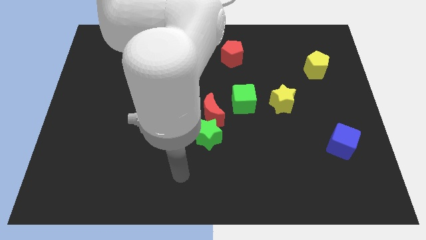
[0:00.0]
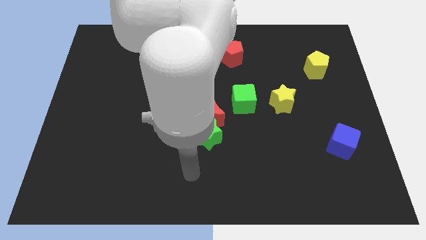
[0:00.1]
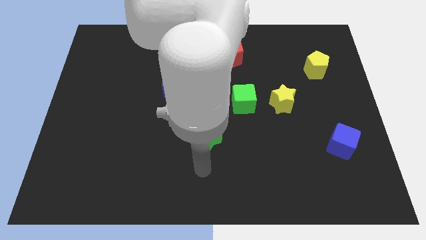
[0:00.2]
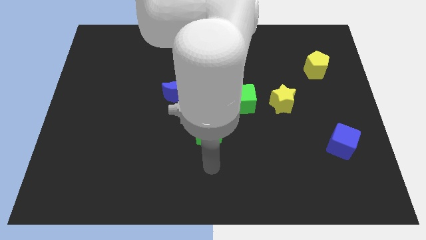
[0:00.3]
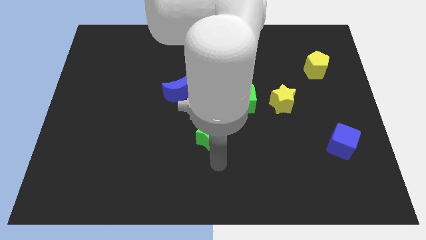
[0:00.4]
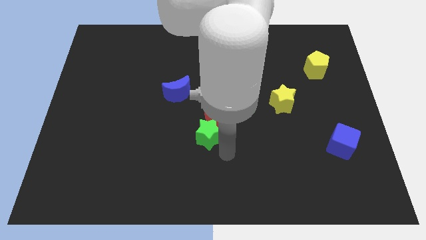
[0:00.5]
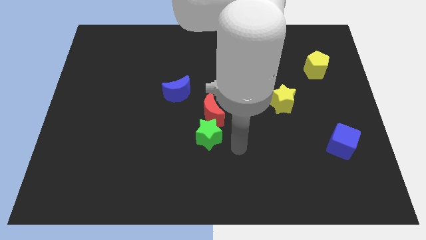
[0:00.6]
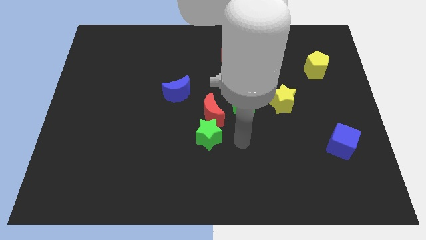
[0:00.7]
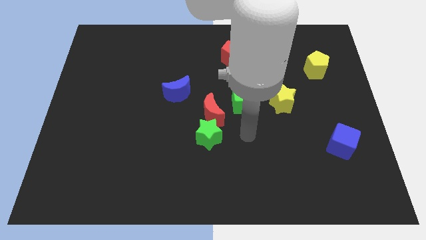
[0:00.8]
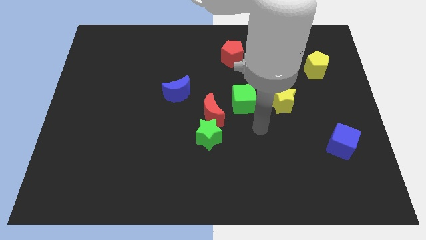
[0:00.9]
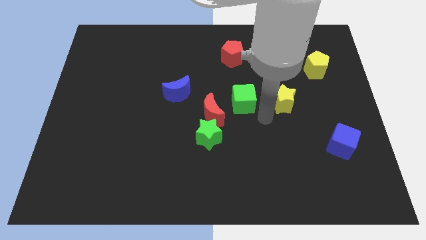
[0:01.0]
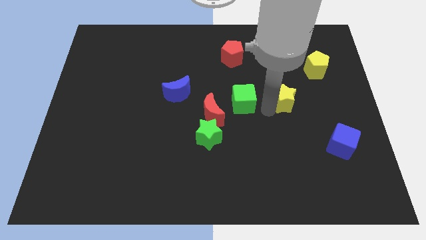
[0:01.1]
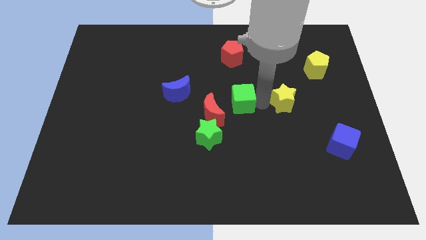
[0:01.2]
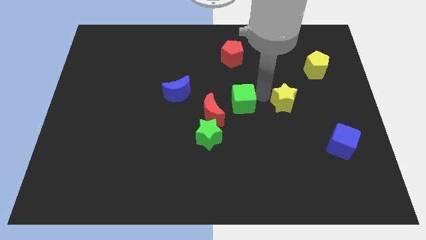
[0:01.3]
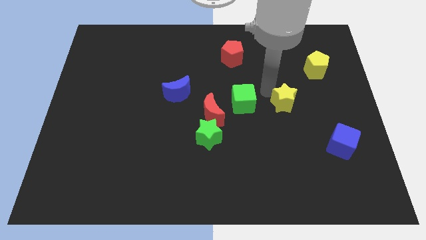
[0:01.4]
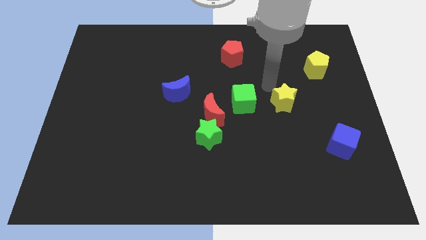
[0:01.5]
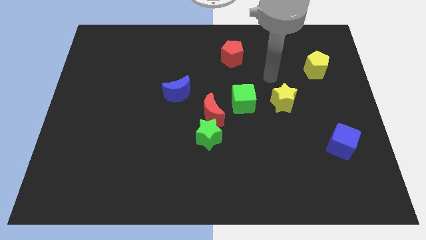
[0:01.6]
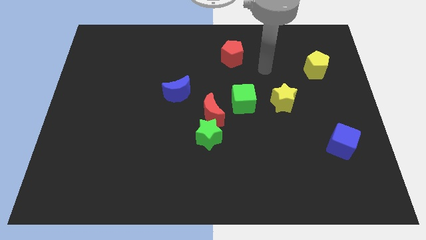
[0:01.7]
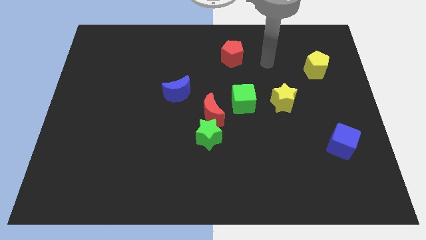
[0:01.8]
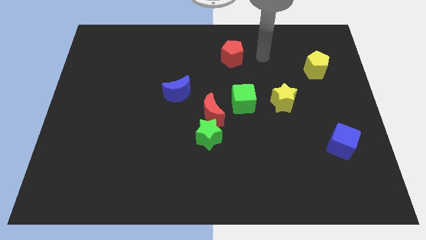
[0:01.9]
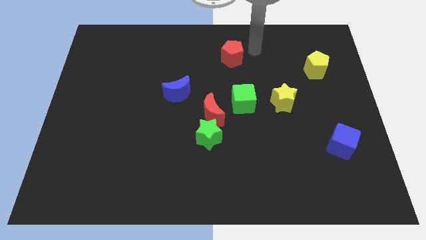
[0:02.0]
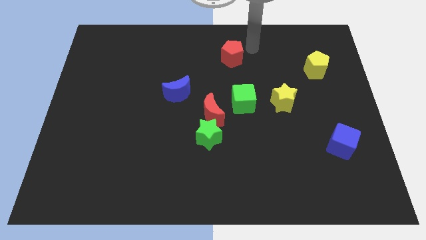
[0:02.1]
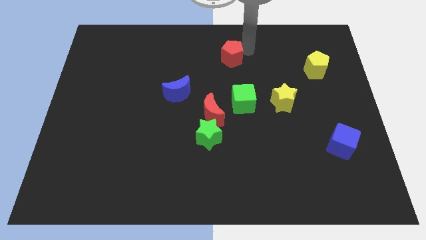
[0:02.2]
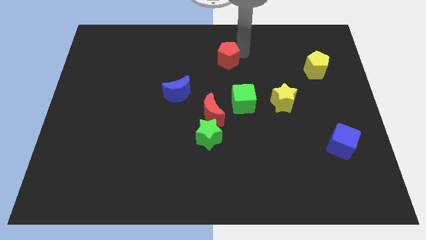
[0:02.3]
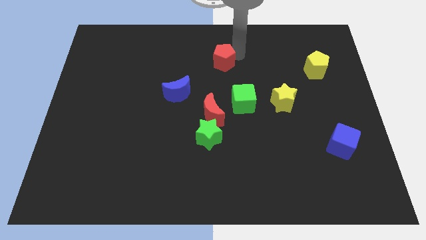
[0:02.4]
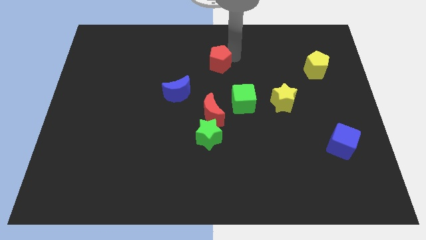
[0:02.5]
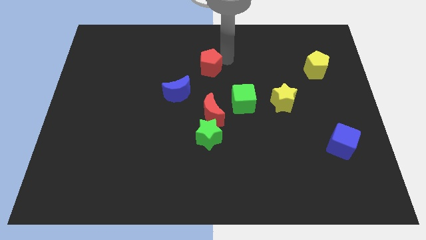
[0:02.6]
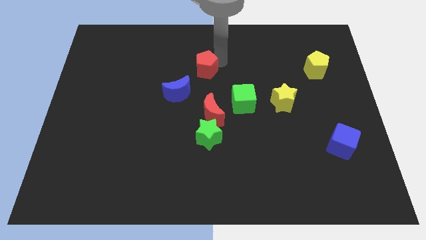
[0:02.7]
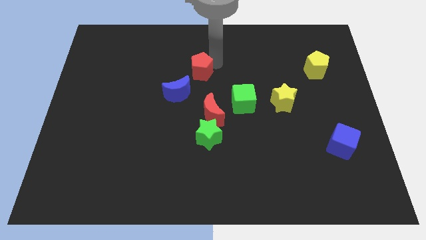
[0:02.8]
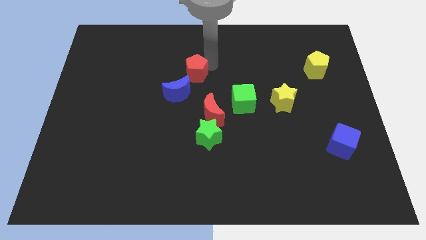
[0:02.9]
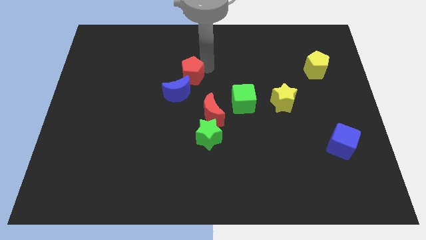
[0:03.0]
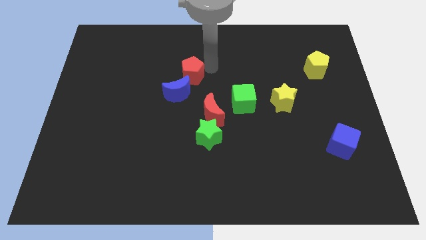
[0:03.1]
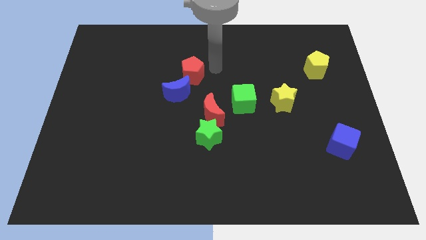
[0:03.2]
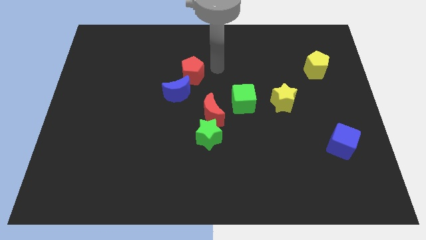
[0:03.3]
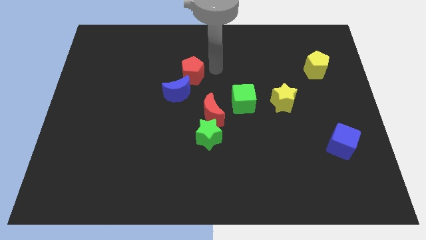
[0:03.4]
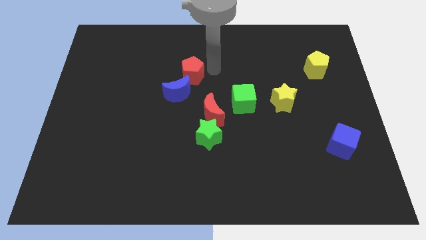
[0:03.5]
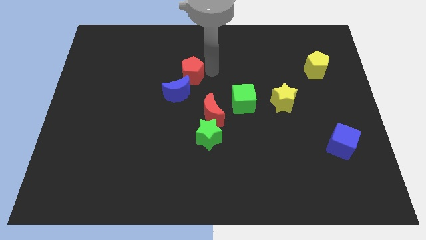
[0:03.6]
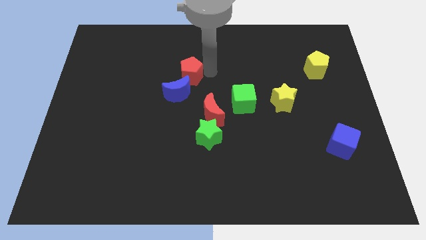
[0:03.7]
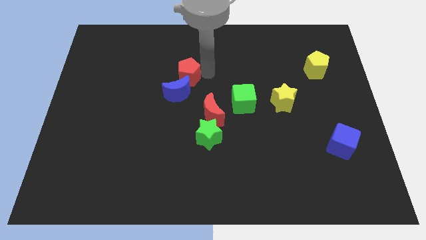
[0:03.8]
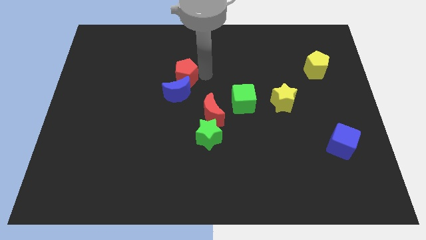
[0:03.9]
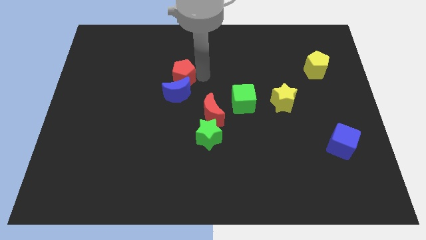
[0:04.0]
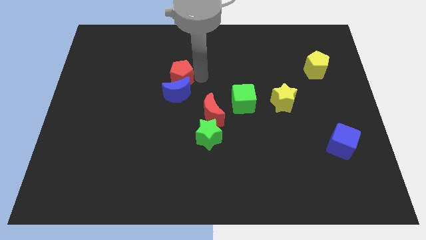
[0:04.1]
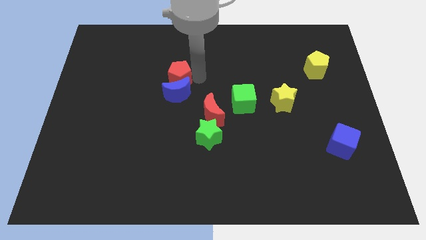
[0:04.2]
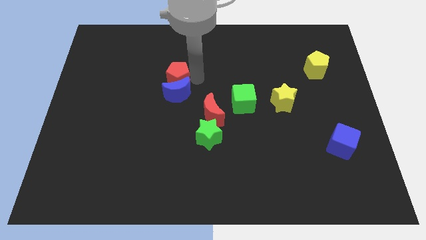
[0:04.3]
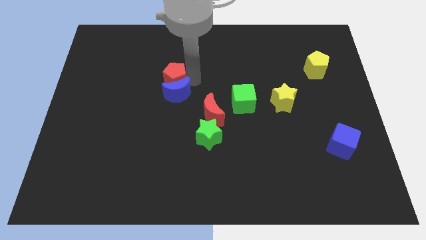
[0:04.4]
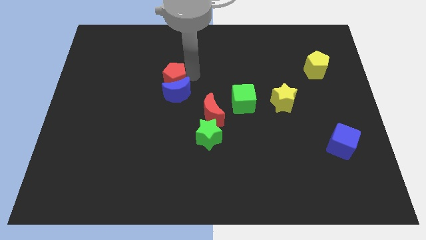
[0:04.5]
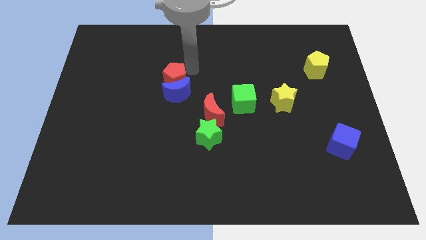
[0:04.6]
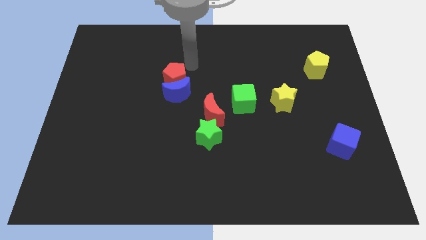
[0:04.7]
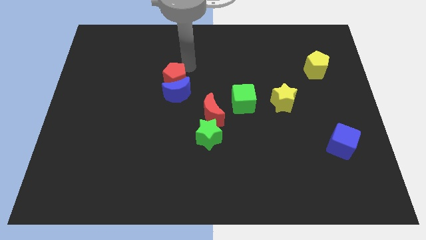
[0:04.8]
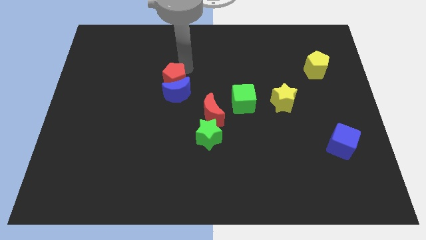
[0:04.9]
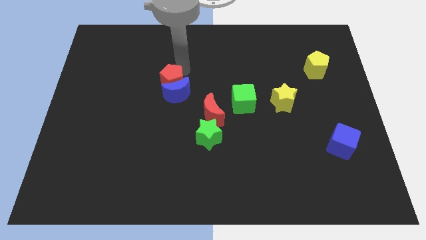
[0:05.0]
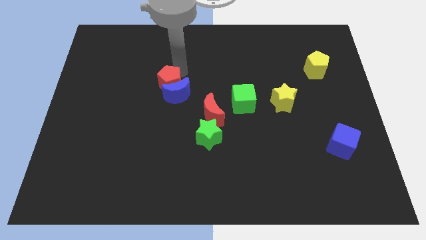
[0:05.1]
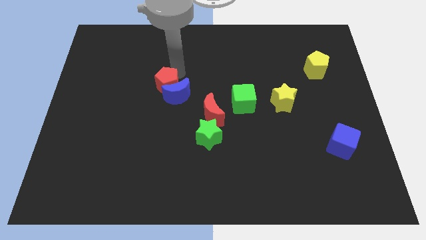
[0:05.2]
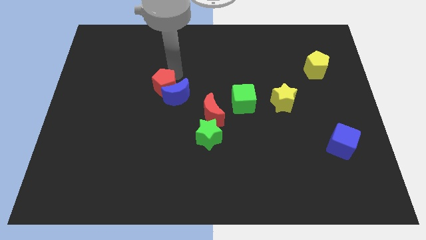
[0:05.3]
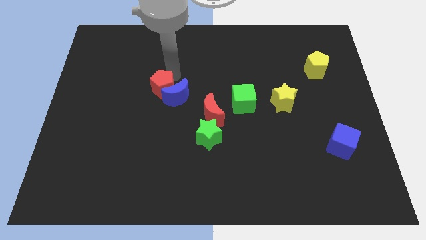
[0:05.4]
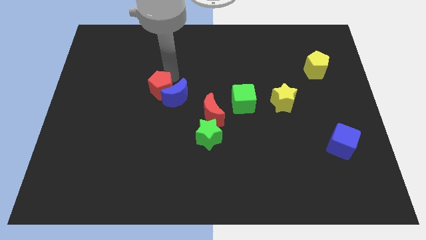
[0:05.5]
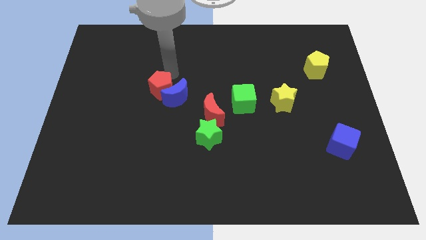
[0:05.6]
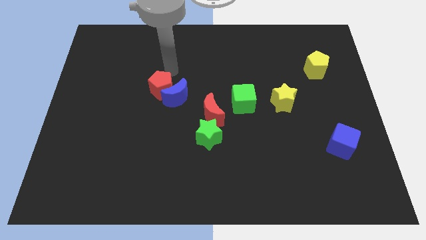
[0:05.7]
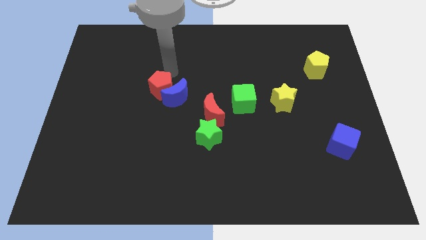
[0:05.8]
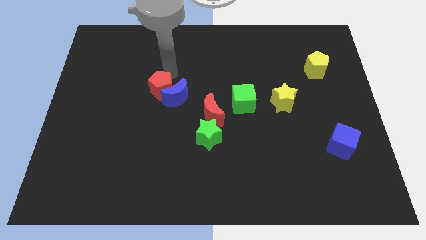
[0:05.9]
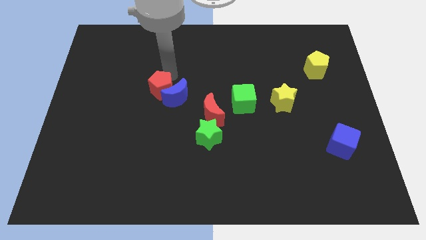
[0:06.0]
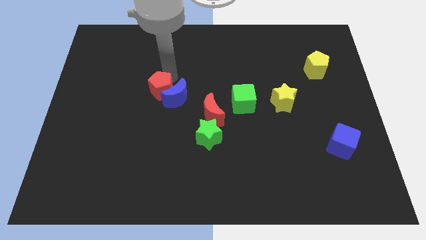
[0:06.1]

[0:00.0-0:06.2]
slide the red pentagon down and to the left diagonally

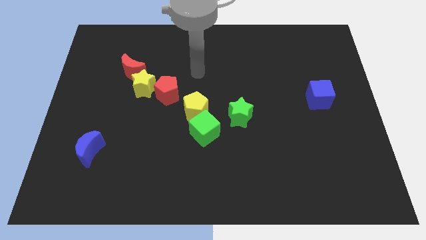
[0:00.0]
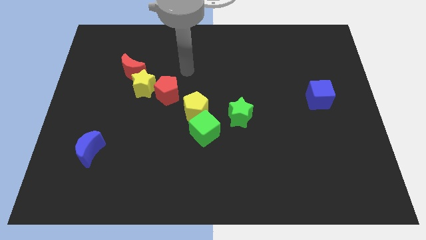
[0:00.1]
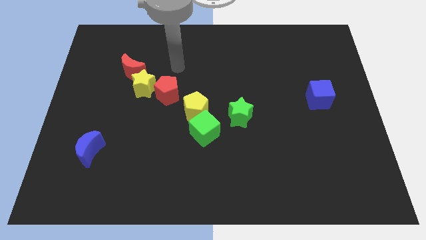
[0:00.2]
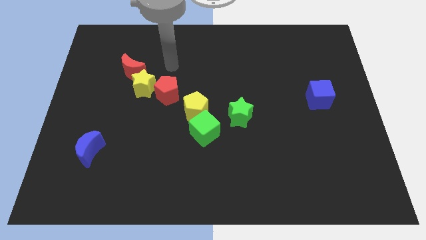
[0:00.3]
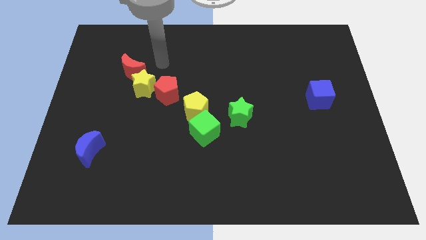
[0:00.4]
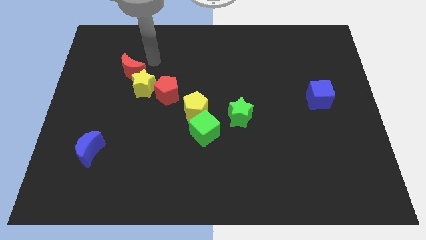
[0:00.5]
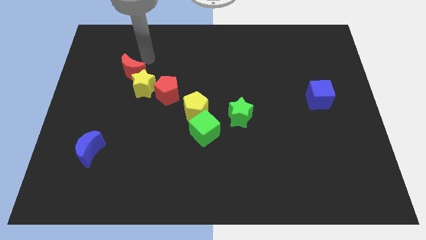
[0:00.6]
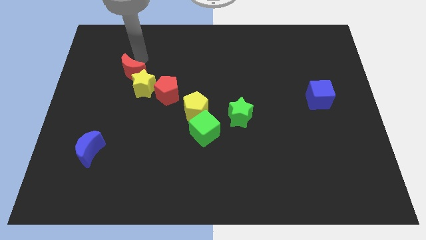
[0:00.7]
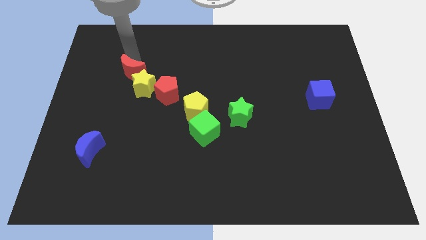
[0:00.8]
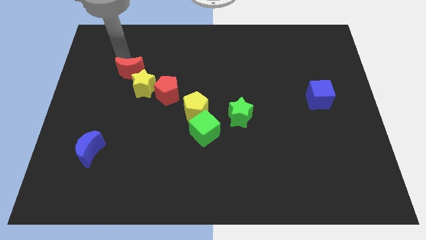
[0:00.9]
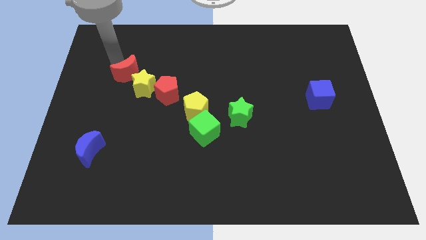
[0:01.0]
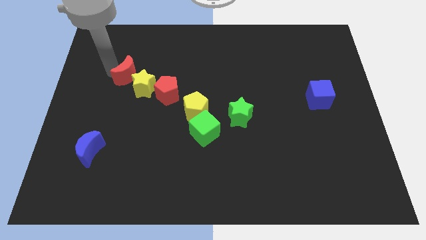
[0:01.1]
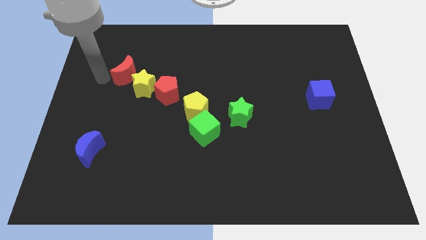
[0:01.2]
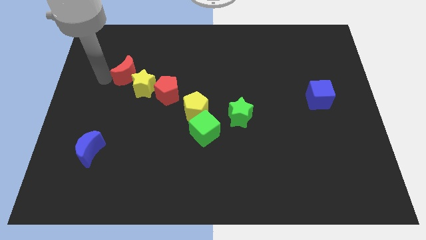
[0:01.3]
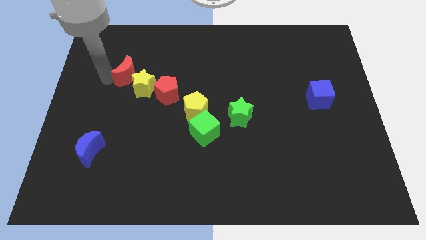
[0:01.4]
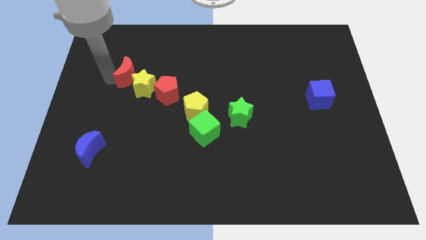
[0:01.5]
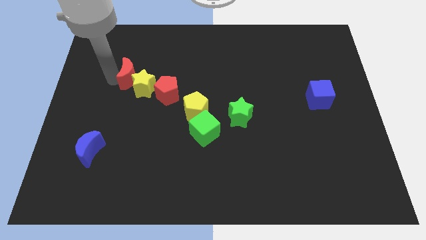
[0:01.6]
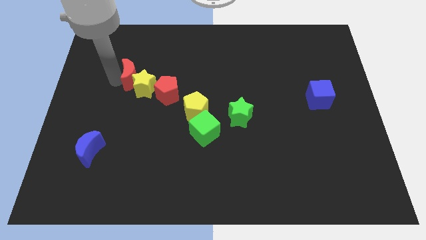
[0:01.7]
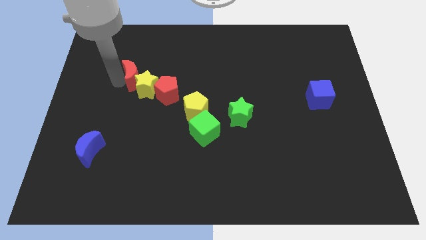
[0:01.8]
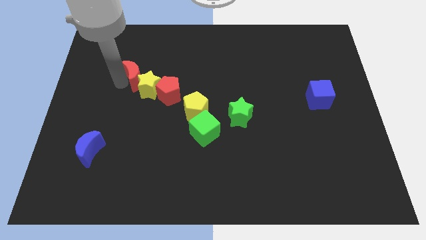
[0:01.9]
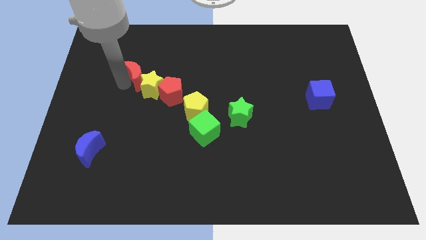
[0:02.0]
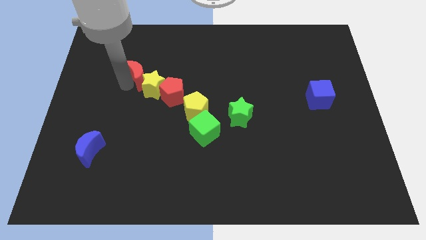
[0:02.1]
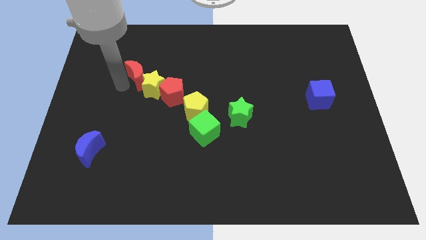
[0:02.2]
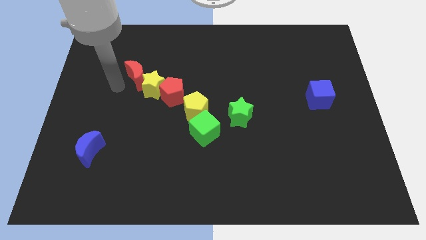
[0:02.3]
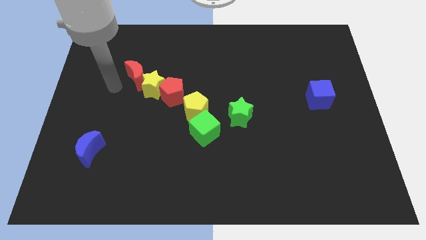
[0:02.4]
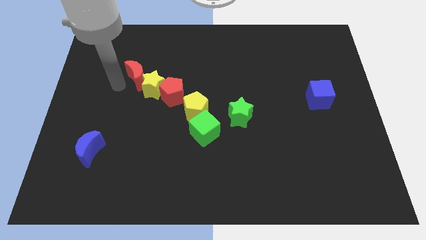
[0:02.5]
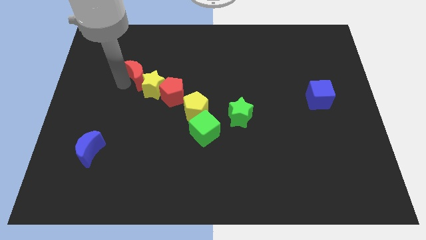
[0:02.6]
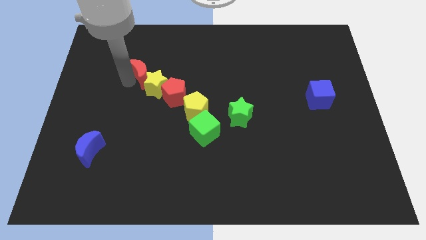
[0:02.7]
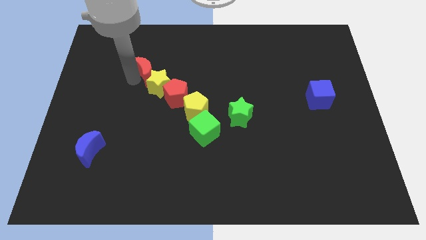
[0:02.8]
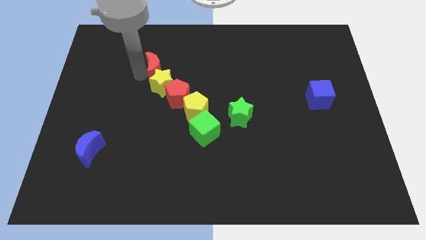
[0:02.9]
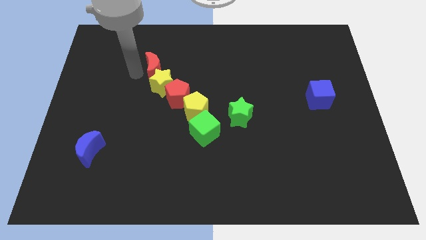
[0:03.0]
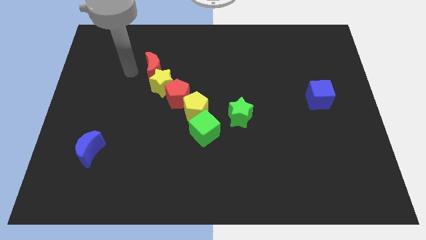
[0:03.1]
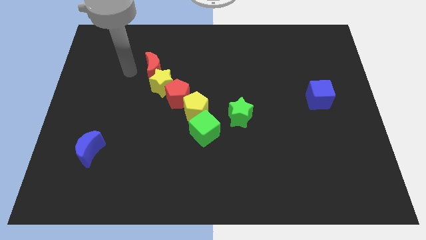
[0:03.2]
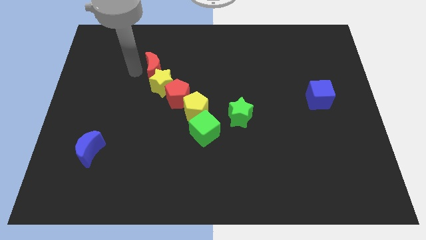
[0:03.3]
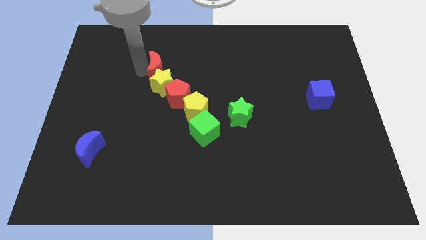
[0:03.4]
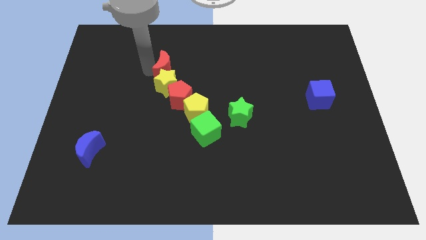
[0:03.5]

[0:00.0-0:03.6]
slightly push the red moon to the right
